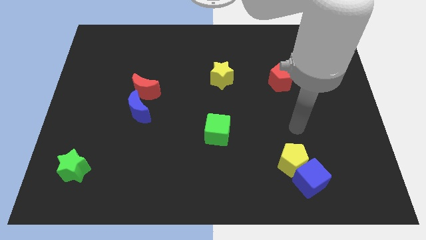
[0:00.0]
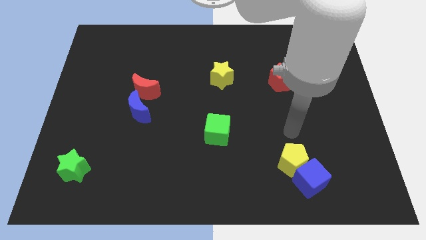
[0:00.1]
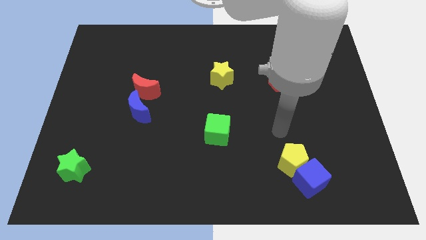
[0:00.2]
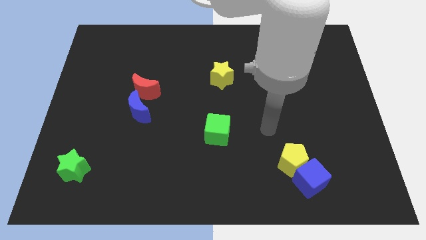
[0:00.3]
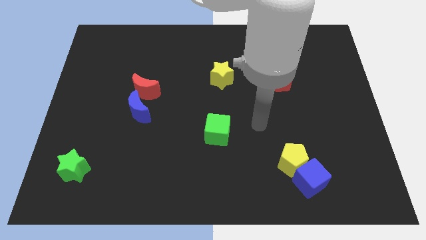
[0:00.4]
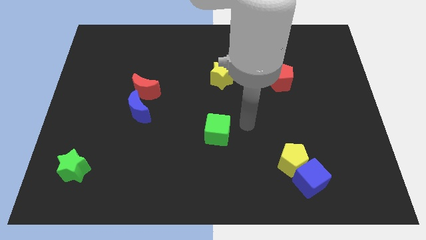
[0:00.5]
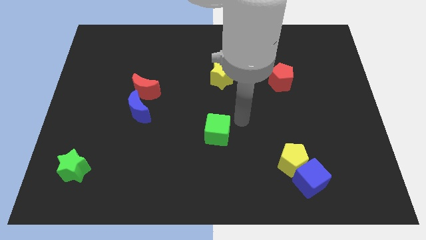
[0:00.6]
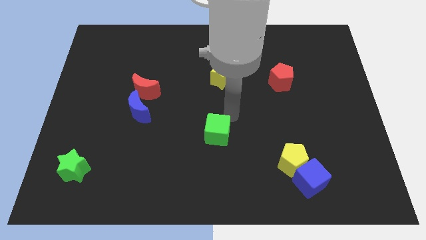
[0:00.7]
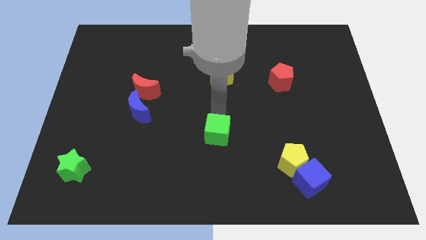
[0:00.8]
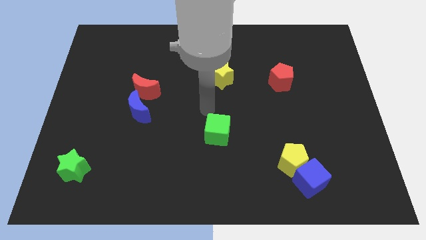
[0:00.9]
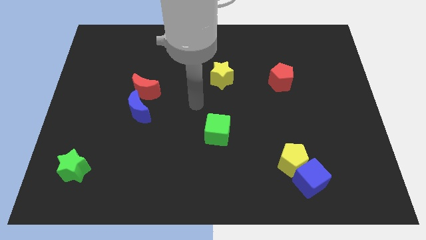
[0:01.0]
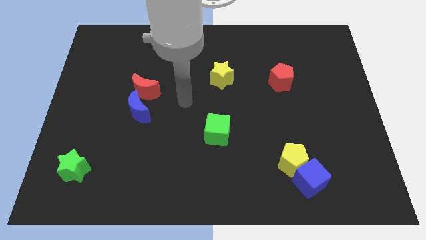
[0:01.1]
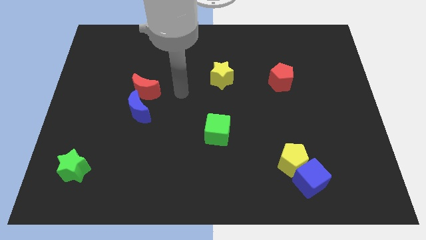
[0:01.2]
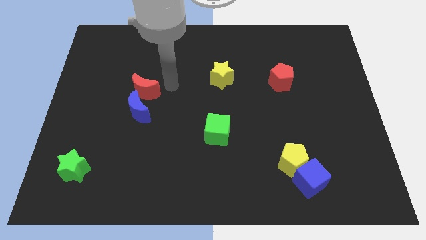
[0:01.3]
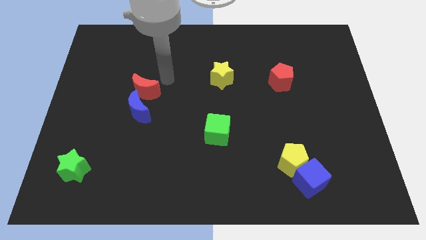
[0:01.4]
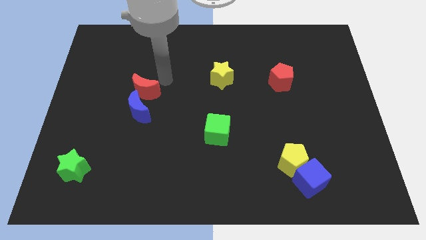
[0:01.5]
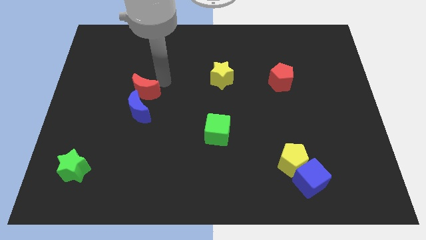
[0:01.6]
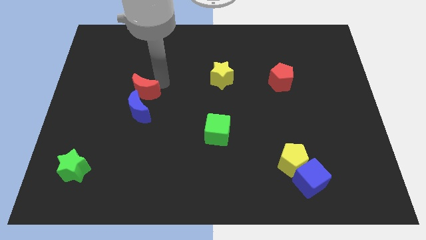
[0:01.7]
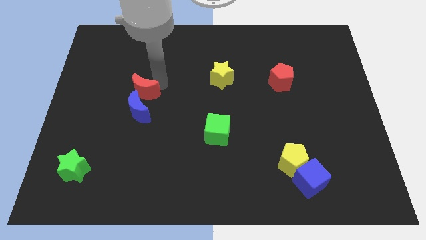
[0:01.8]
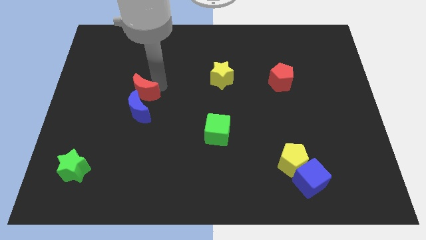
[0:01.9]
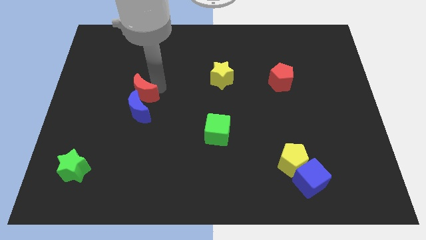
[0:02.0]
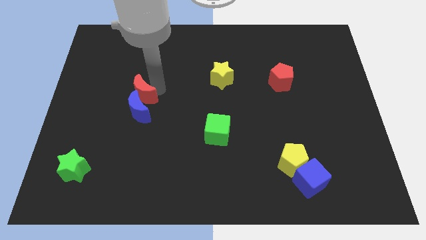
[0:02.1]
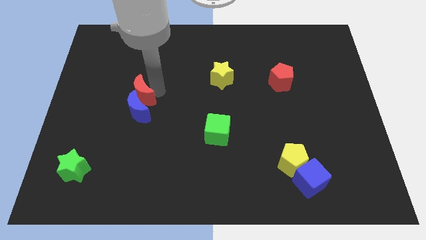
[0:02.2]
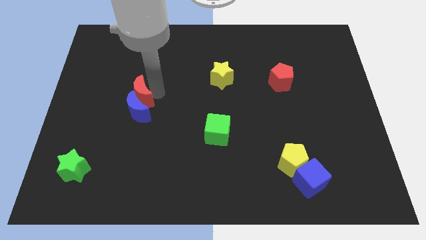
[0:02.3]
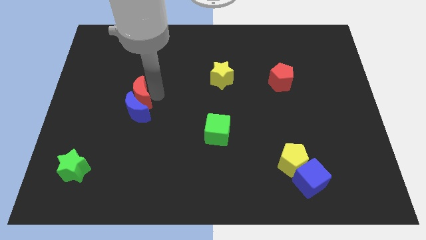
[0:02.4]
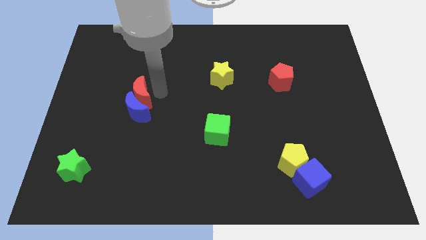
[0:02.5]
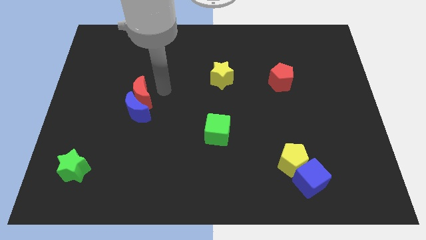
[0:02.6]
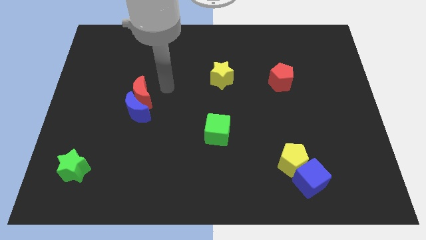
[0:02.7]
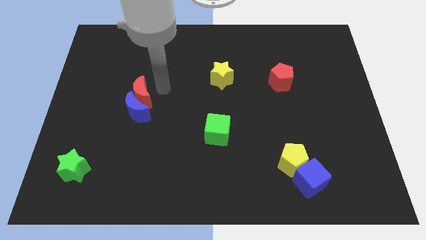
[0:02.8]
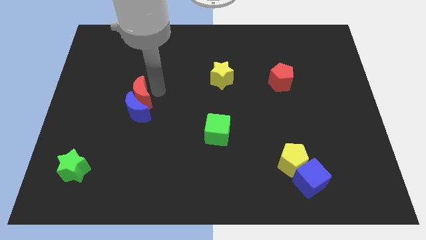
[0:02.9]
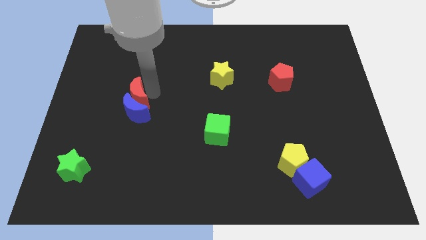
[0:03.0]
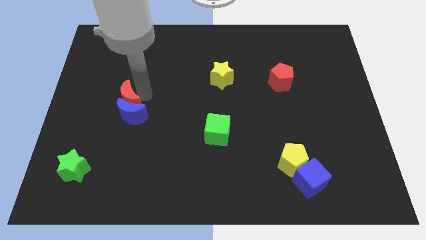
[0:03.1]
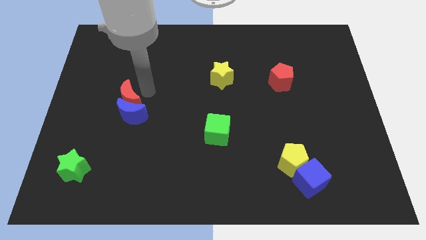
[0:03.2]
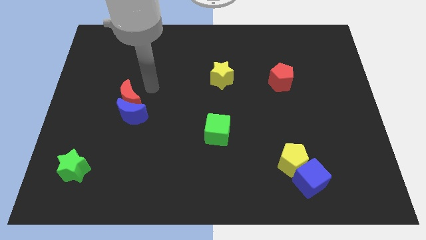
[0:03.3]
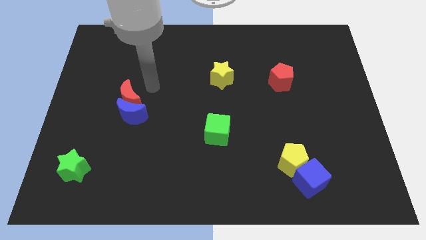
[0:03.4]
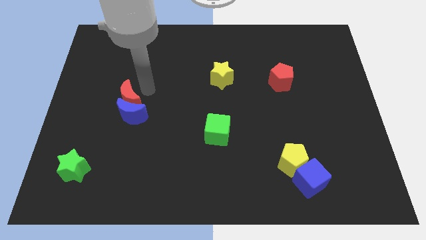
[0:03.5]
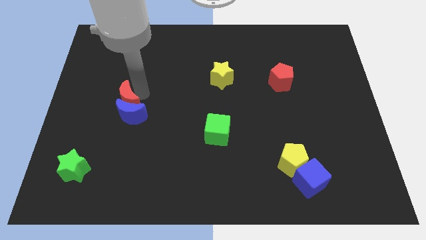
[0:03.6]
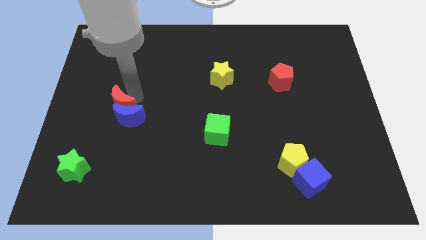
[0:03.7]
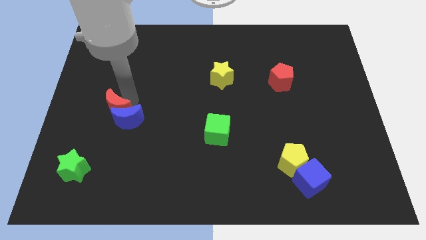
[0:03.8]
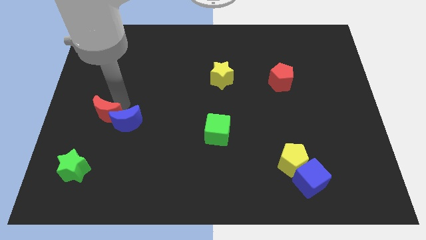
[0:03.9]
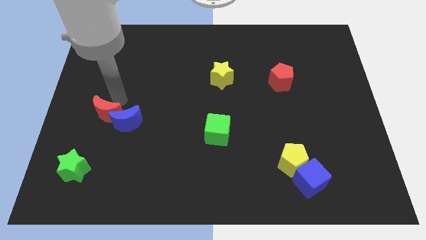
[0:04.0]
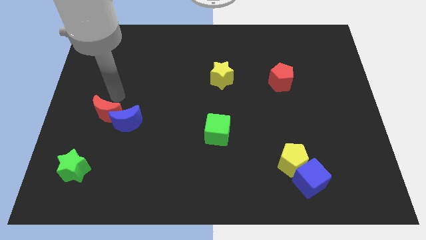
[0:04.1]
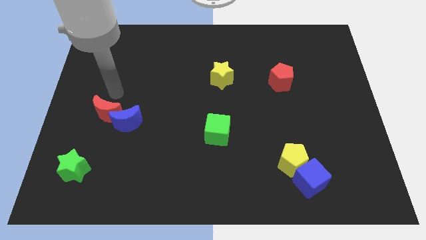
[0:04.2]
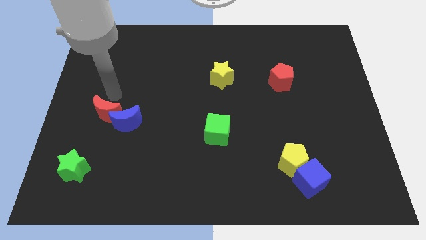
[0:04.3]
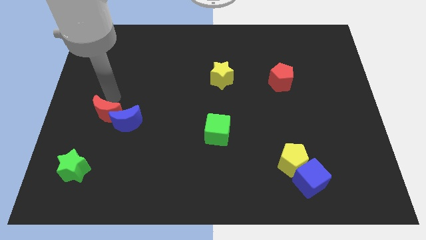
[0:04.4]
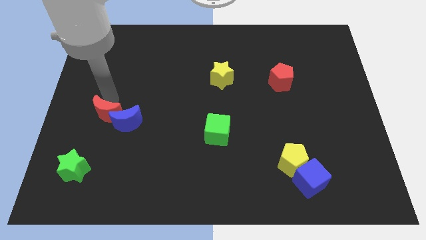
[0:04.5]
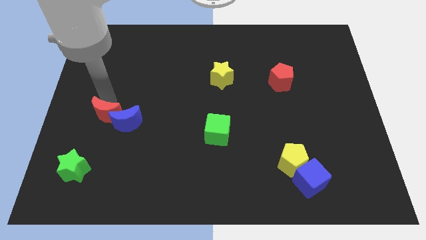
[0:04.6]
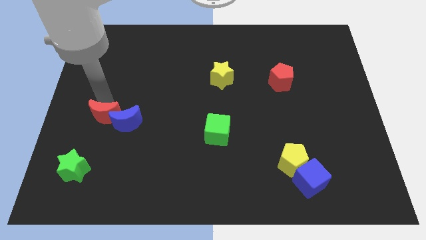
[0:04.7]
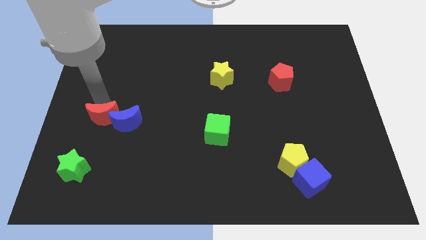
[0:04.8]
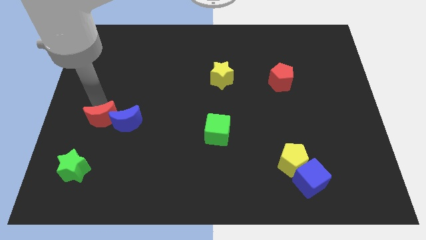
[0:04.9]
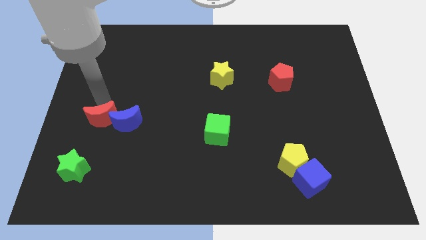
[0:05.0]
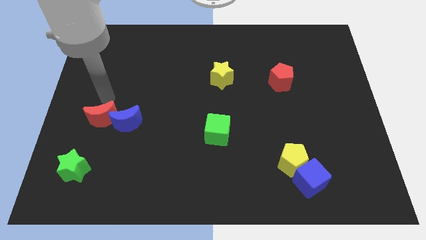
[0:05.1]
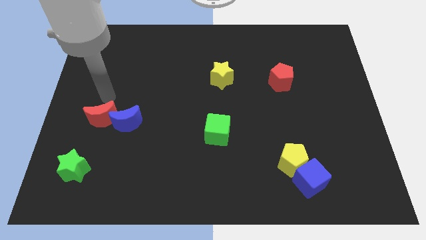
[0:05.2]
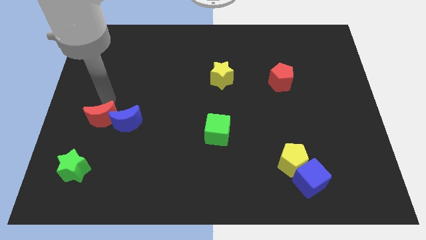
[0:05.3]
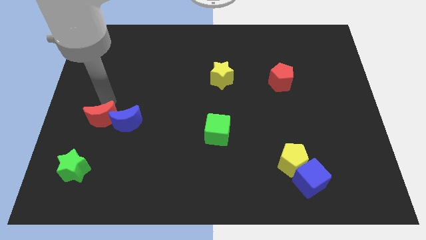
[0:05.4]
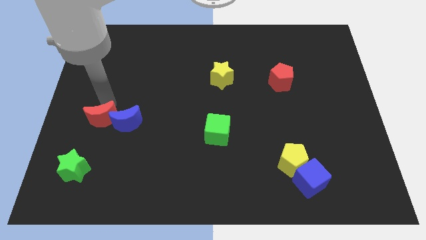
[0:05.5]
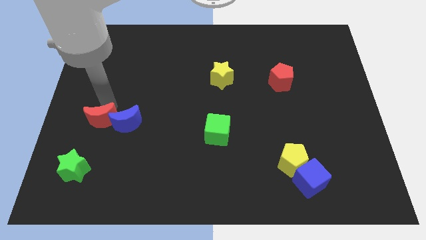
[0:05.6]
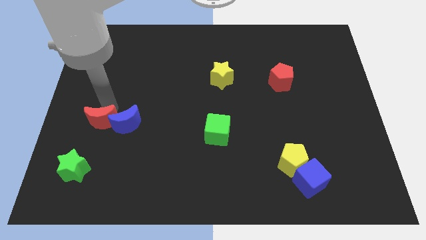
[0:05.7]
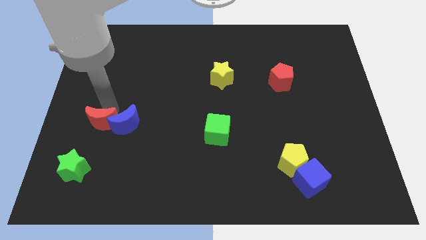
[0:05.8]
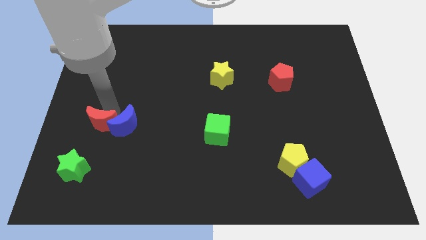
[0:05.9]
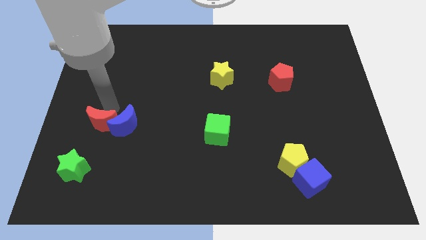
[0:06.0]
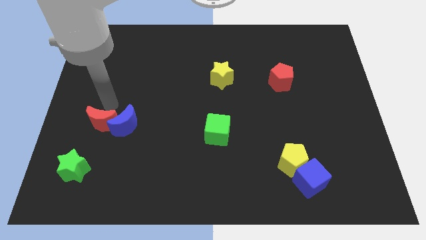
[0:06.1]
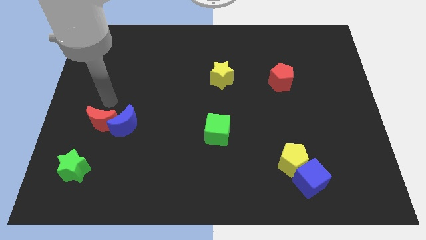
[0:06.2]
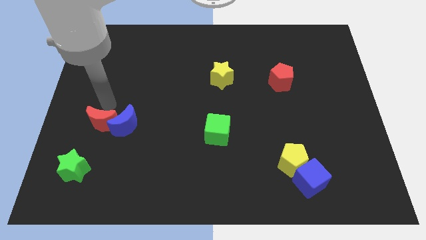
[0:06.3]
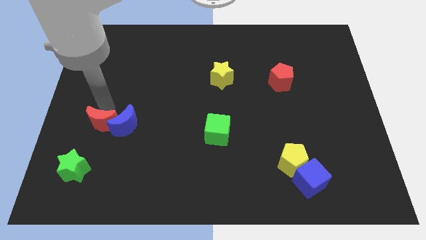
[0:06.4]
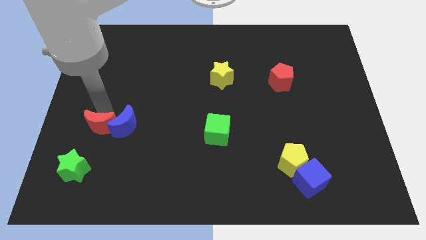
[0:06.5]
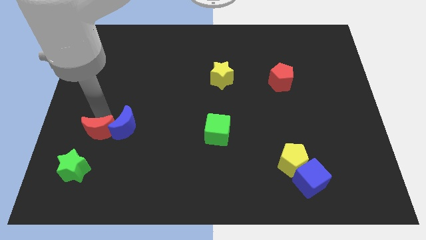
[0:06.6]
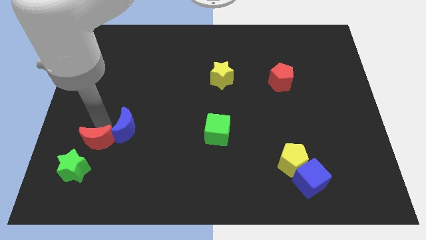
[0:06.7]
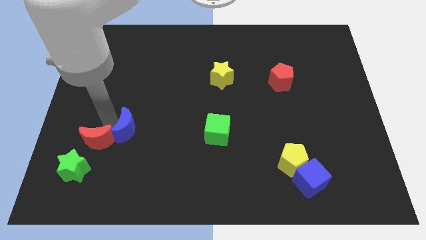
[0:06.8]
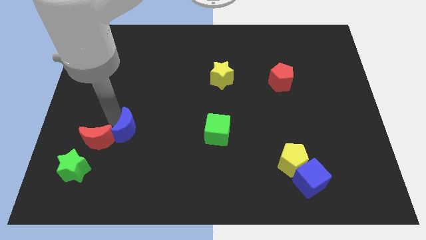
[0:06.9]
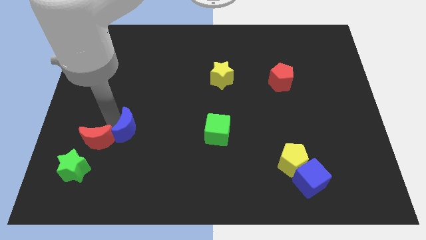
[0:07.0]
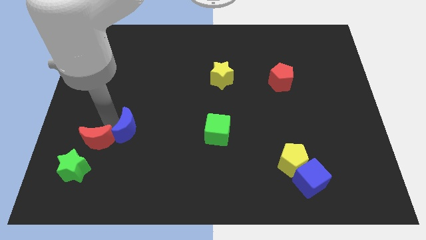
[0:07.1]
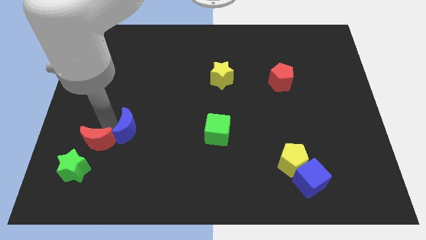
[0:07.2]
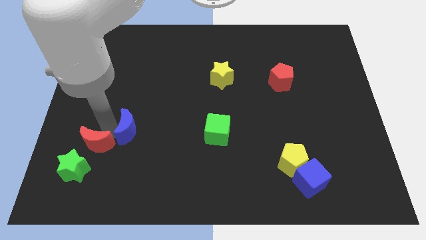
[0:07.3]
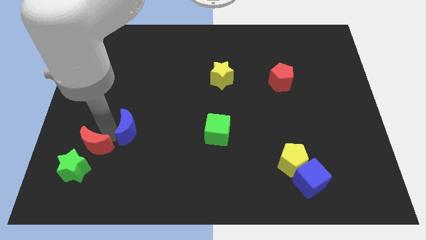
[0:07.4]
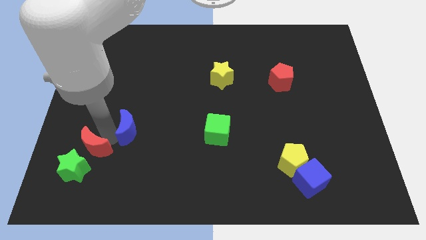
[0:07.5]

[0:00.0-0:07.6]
move the red moon to the green star
